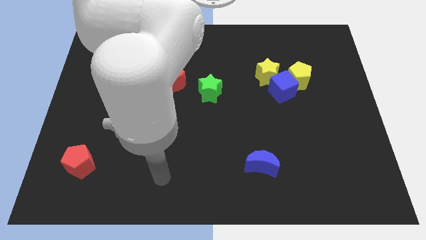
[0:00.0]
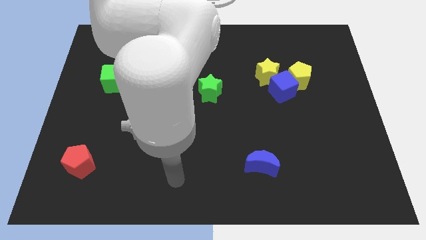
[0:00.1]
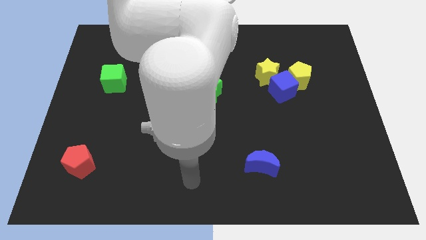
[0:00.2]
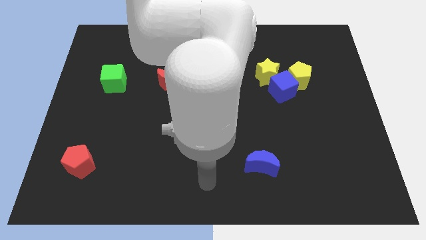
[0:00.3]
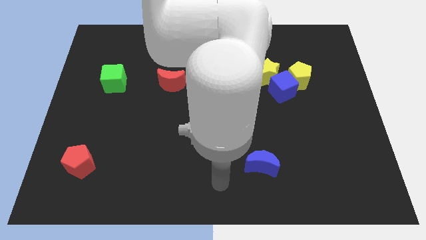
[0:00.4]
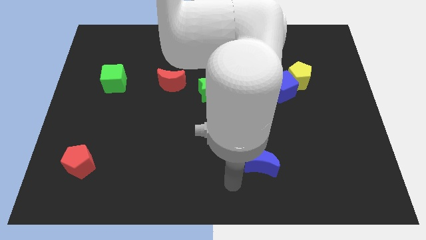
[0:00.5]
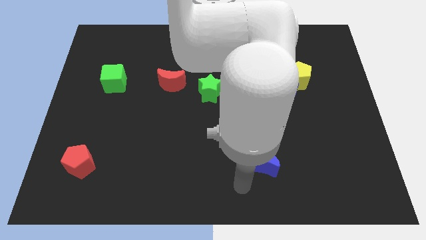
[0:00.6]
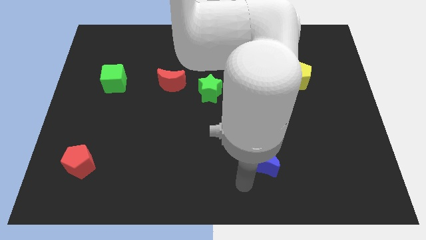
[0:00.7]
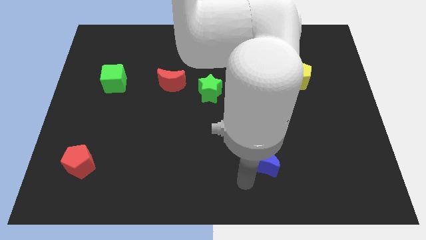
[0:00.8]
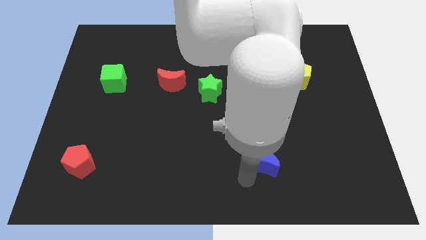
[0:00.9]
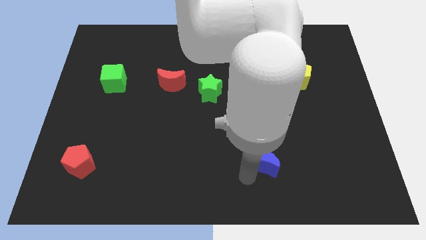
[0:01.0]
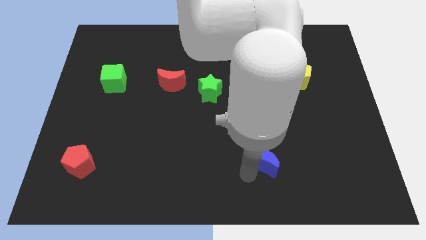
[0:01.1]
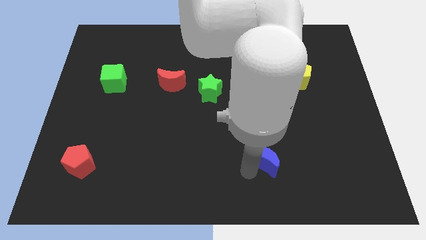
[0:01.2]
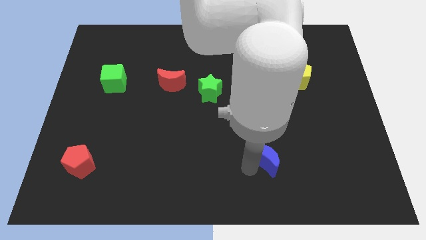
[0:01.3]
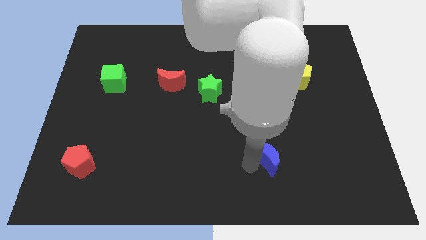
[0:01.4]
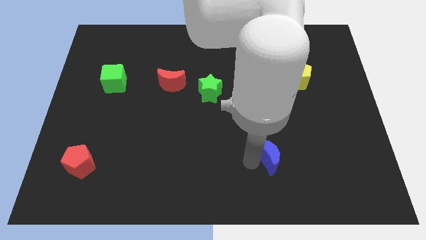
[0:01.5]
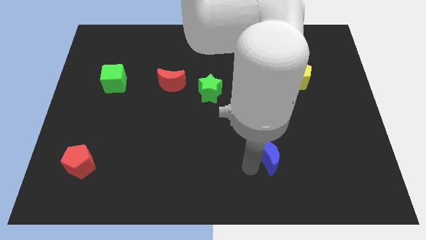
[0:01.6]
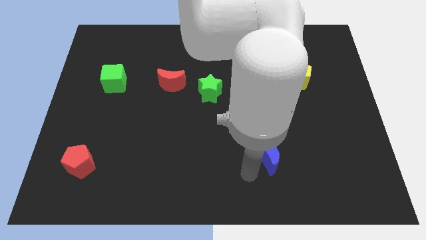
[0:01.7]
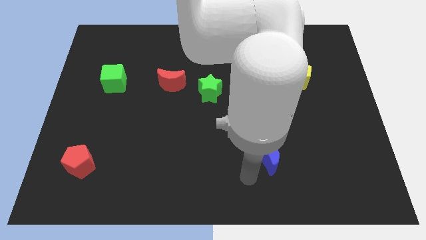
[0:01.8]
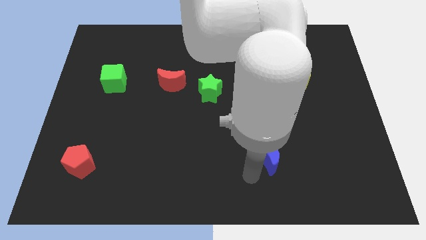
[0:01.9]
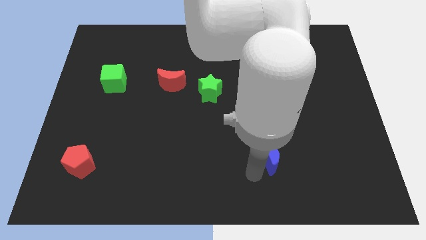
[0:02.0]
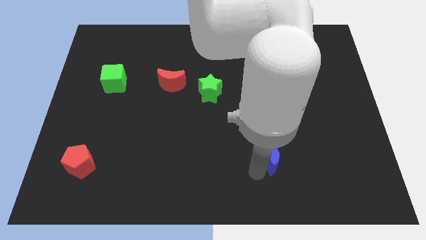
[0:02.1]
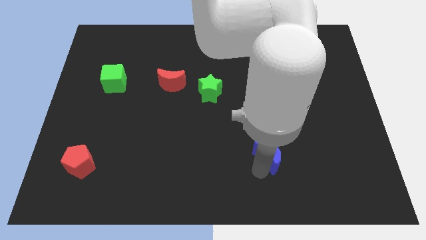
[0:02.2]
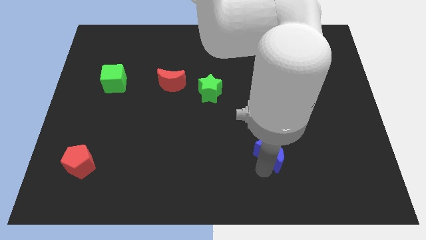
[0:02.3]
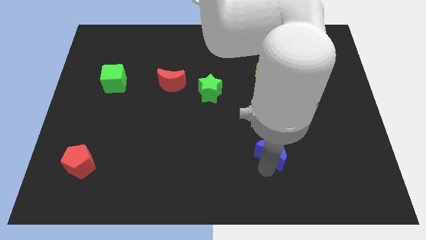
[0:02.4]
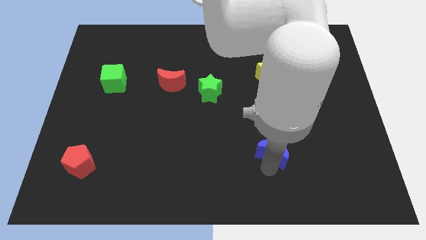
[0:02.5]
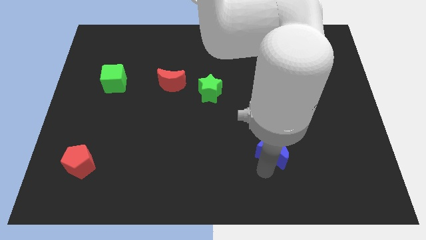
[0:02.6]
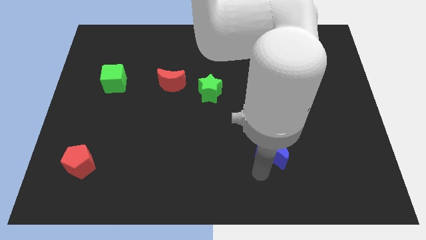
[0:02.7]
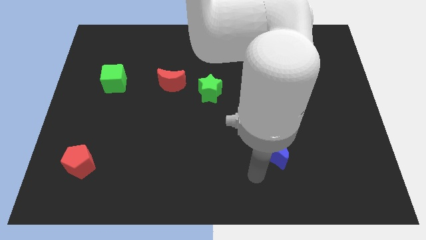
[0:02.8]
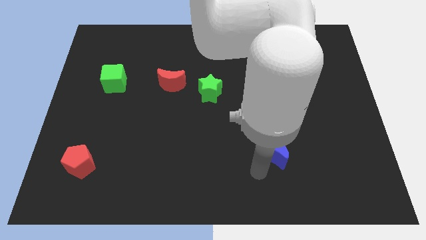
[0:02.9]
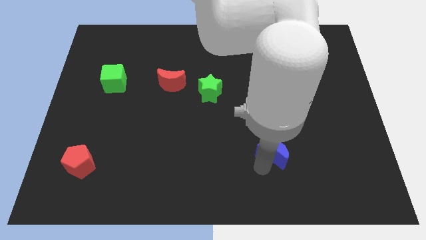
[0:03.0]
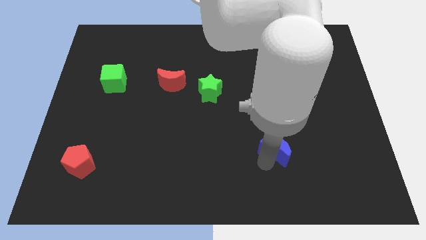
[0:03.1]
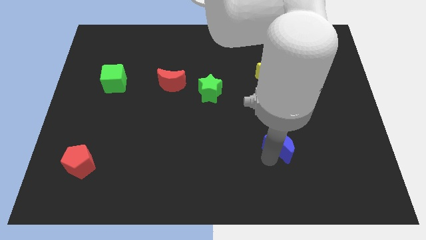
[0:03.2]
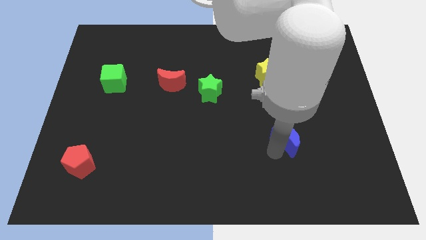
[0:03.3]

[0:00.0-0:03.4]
slightly slide the blue moon up and then right

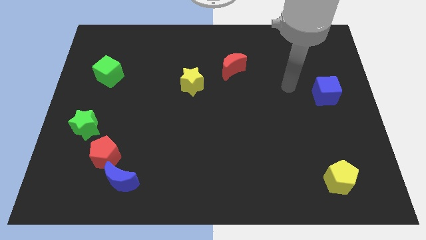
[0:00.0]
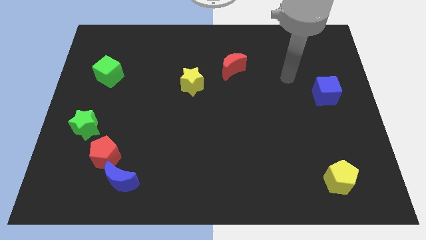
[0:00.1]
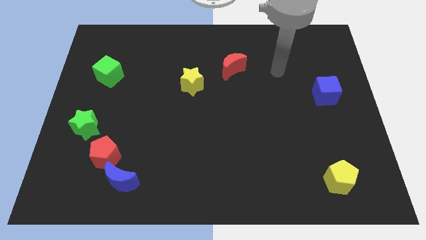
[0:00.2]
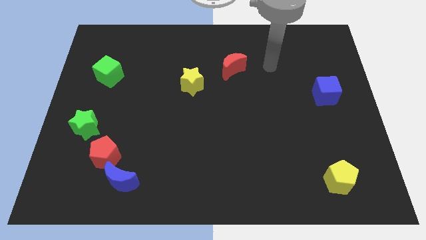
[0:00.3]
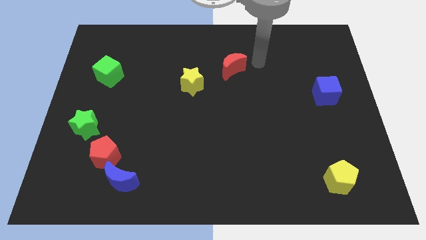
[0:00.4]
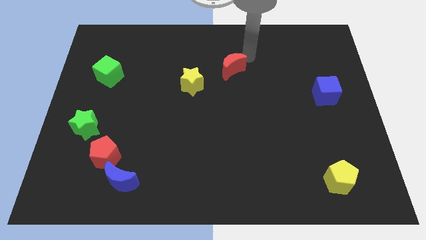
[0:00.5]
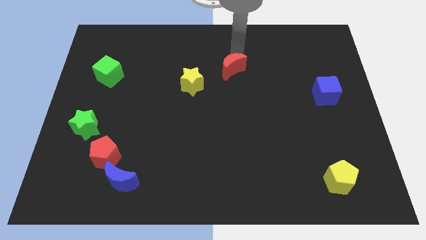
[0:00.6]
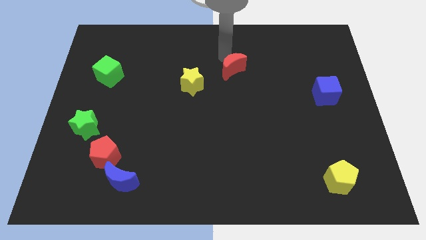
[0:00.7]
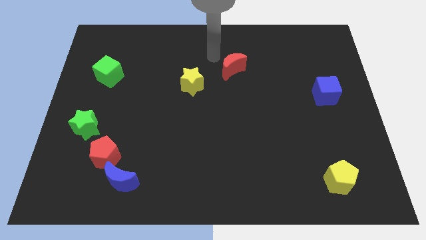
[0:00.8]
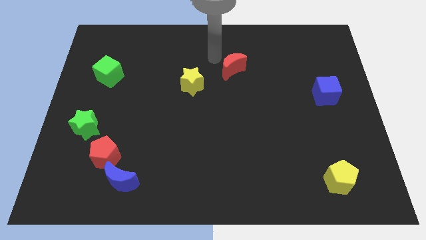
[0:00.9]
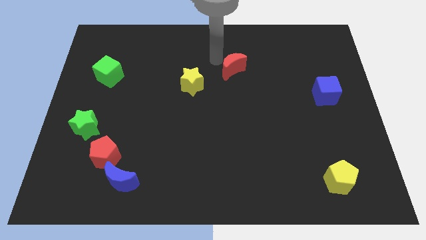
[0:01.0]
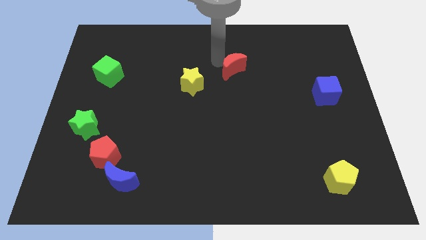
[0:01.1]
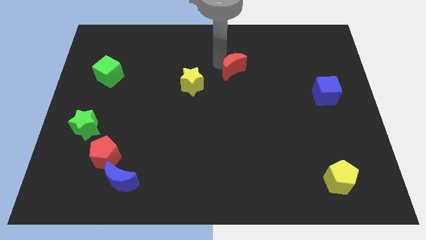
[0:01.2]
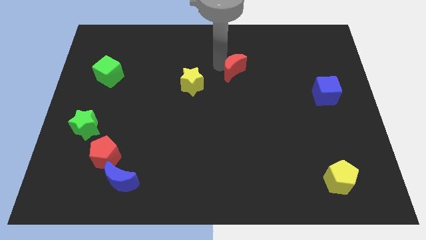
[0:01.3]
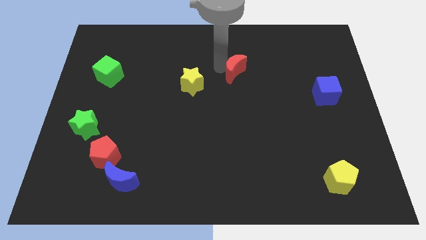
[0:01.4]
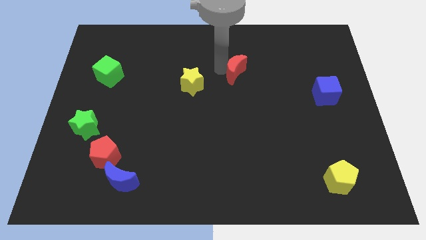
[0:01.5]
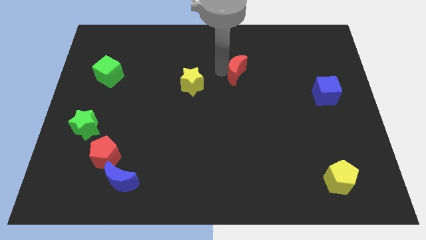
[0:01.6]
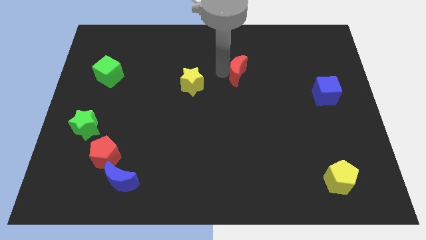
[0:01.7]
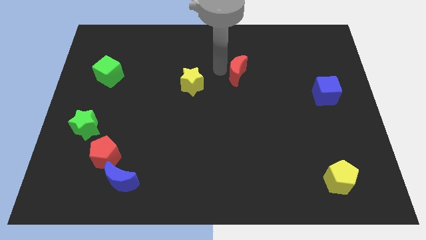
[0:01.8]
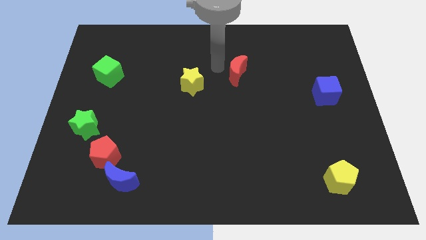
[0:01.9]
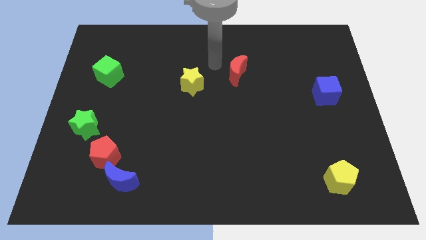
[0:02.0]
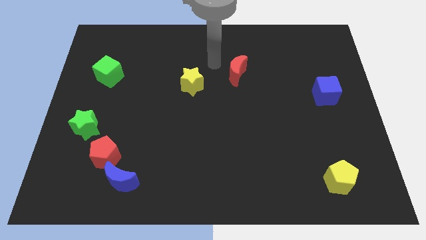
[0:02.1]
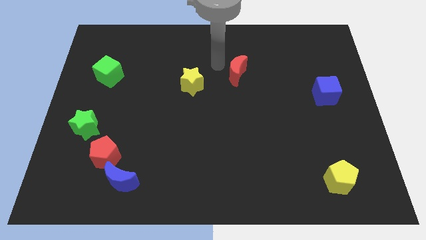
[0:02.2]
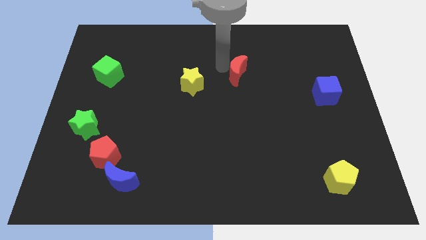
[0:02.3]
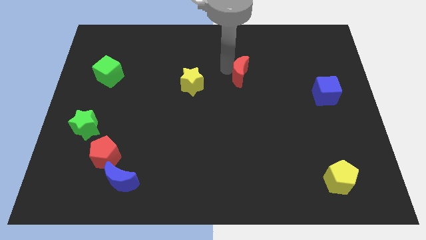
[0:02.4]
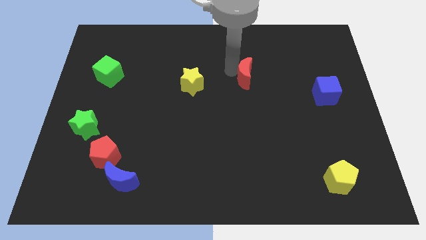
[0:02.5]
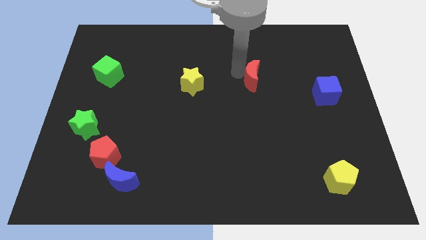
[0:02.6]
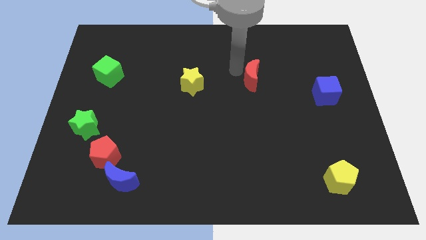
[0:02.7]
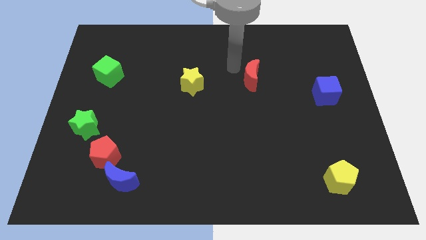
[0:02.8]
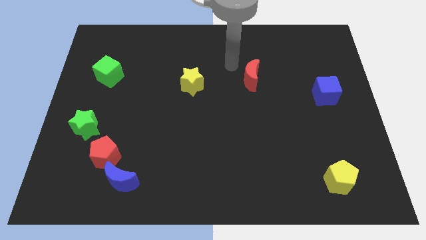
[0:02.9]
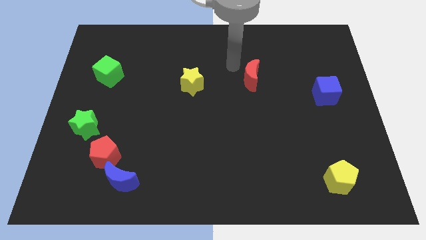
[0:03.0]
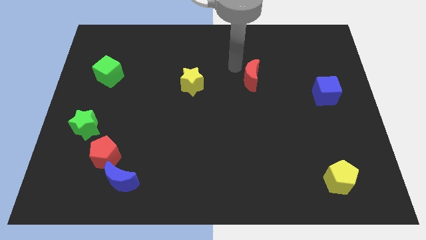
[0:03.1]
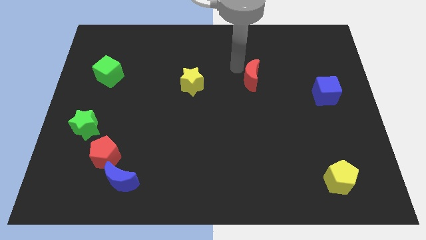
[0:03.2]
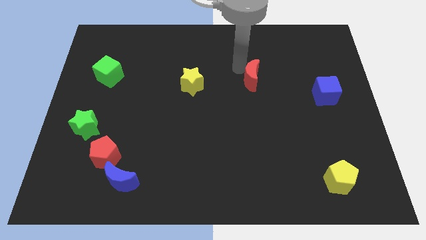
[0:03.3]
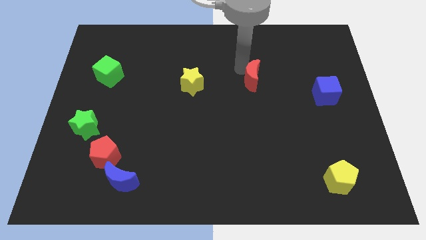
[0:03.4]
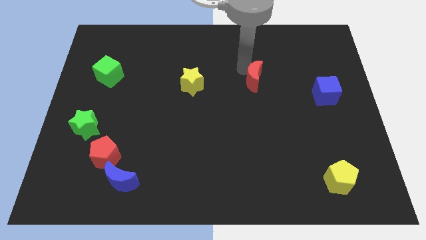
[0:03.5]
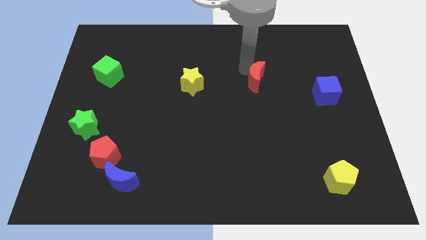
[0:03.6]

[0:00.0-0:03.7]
slightly move the red moon downwards and to the right diagonally

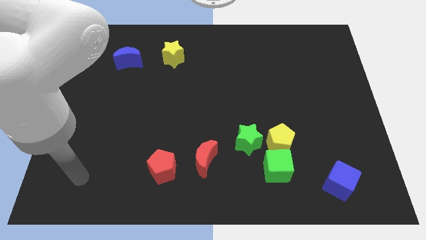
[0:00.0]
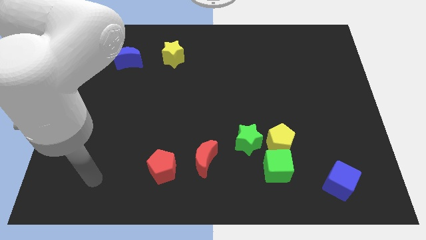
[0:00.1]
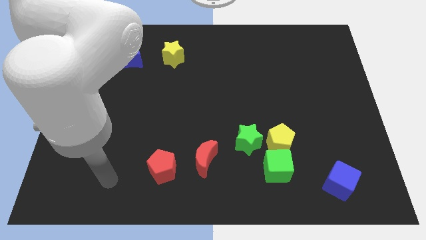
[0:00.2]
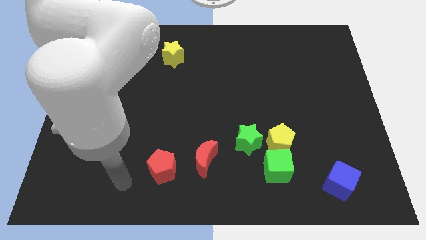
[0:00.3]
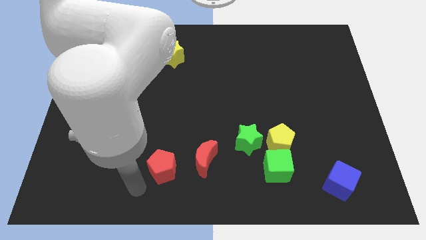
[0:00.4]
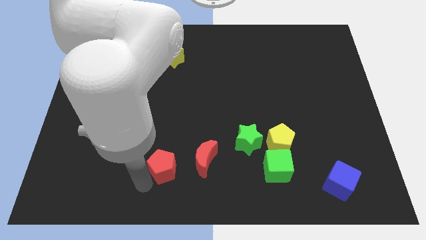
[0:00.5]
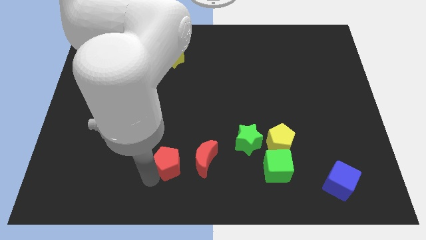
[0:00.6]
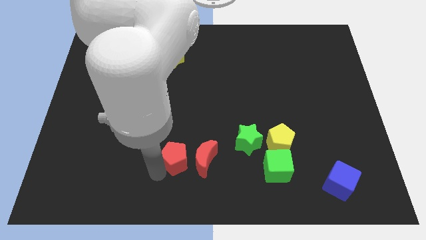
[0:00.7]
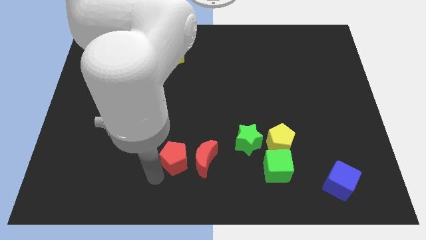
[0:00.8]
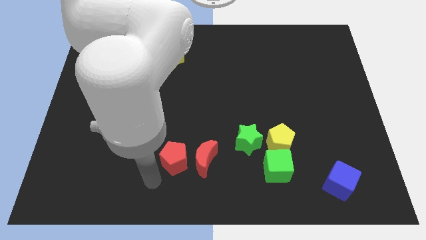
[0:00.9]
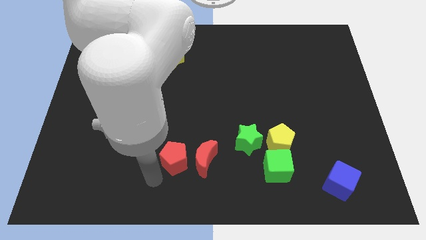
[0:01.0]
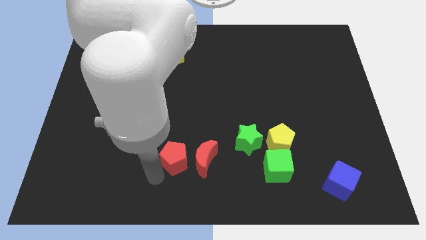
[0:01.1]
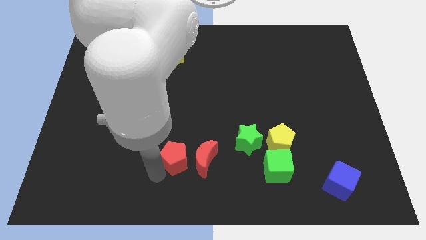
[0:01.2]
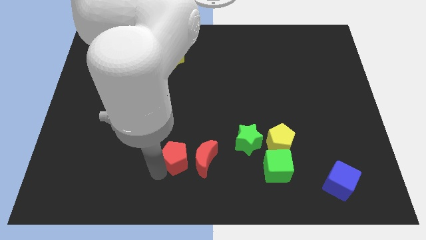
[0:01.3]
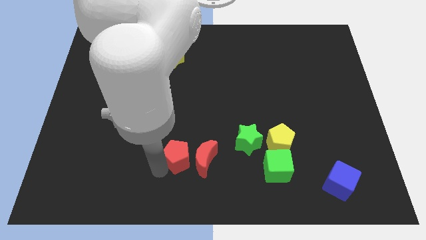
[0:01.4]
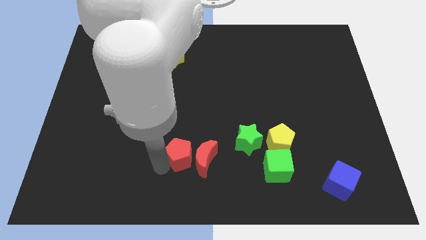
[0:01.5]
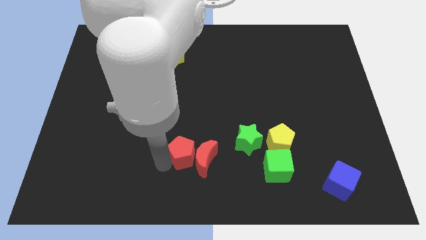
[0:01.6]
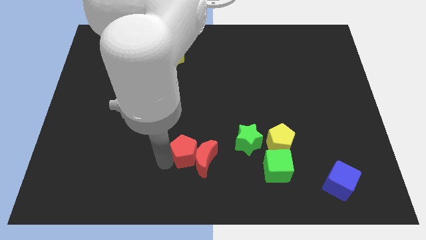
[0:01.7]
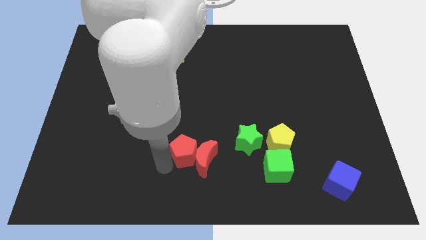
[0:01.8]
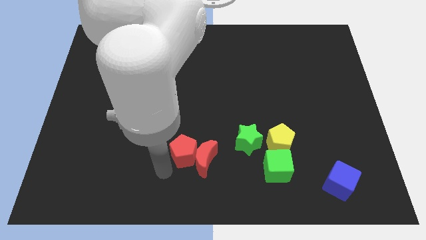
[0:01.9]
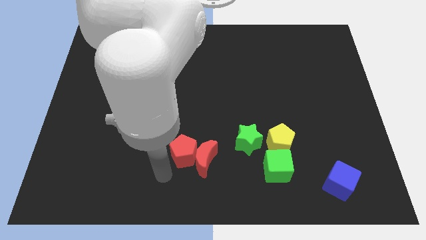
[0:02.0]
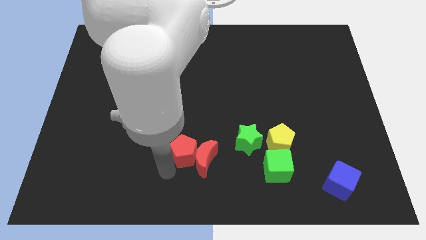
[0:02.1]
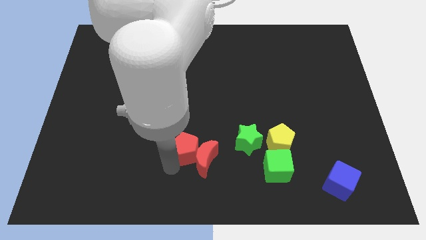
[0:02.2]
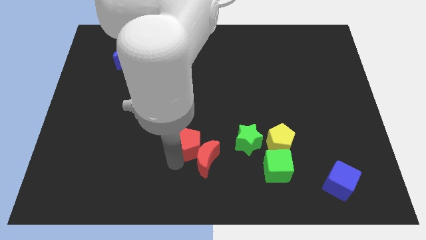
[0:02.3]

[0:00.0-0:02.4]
slightly move the red pentagon upwards and right diagonally
